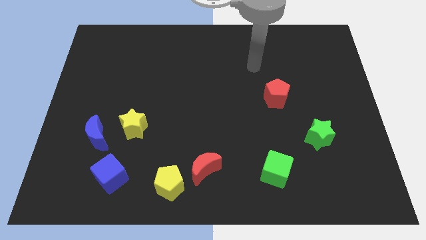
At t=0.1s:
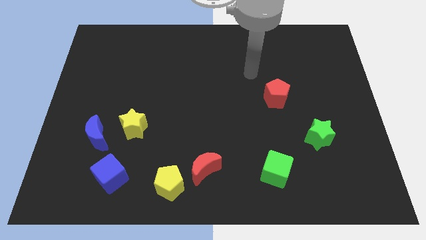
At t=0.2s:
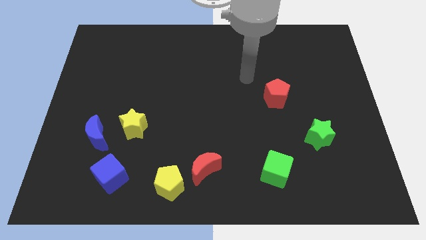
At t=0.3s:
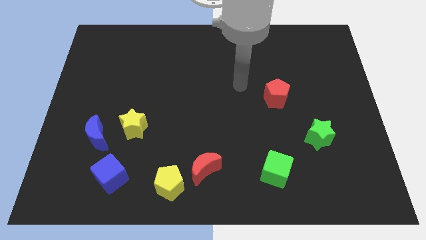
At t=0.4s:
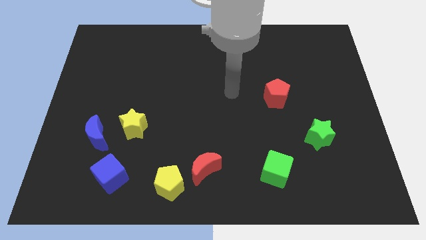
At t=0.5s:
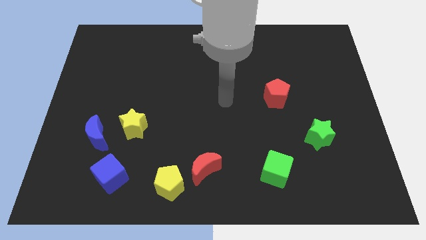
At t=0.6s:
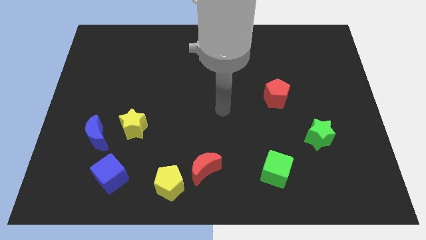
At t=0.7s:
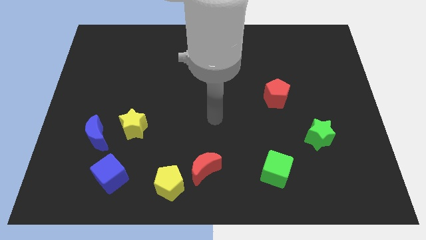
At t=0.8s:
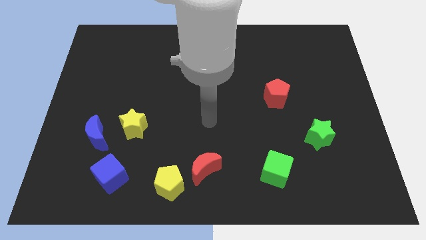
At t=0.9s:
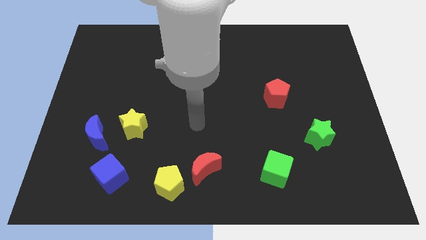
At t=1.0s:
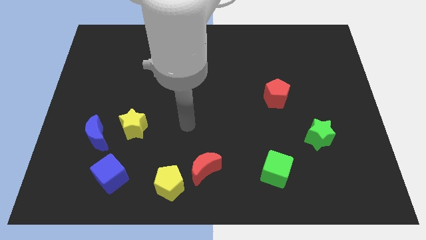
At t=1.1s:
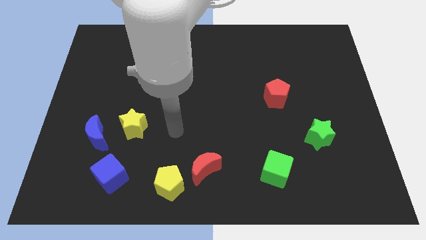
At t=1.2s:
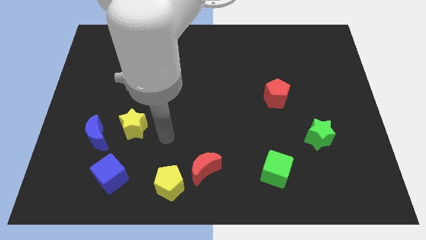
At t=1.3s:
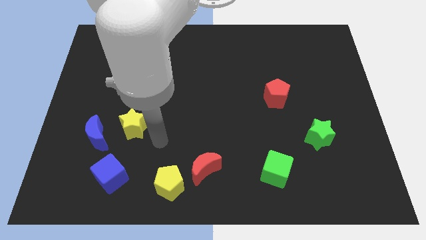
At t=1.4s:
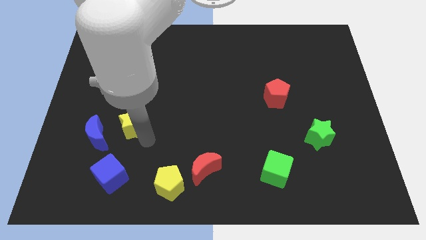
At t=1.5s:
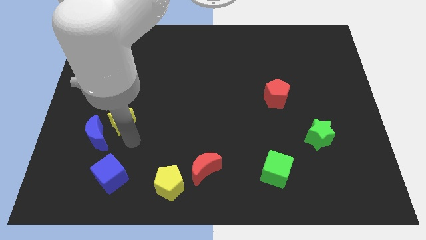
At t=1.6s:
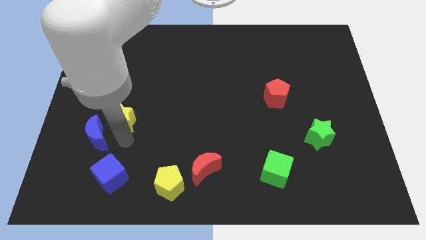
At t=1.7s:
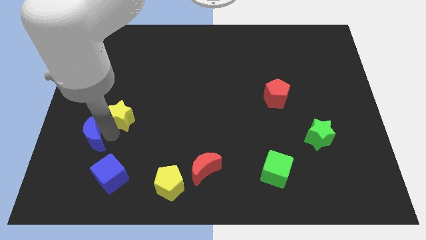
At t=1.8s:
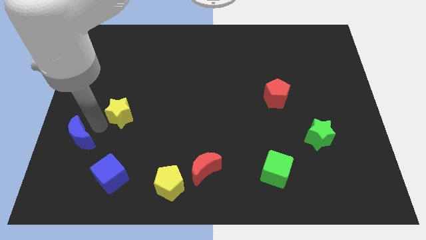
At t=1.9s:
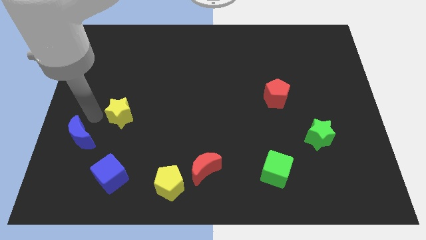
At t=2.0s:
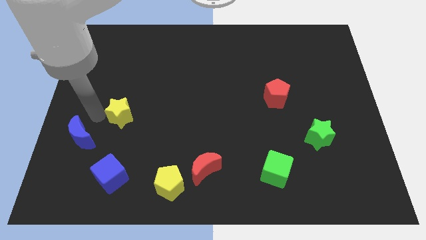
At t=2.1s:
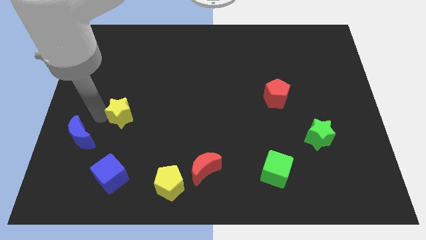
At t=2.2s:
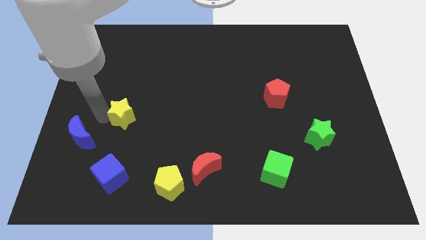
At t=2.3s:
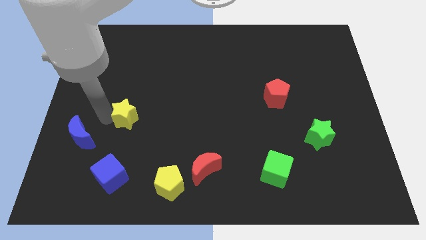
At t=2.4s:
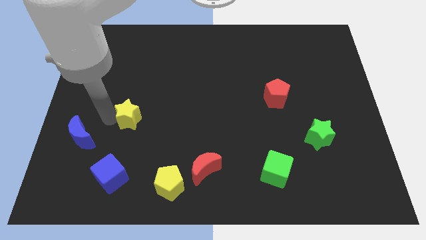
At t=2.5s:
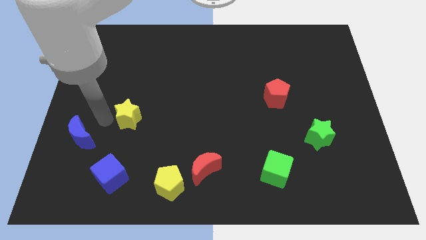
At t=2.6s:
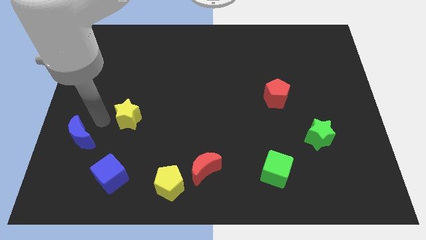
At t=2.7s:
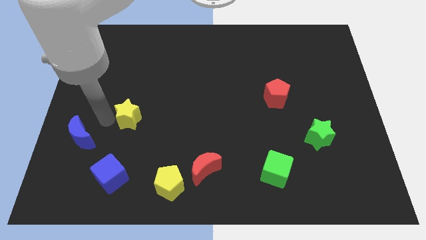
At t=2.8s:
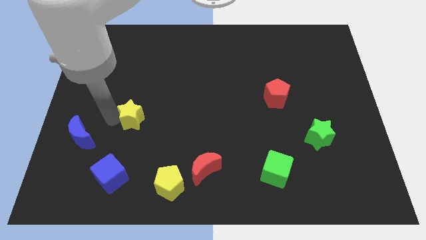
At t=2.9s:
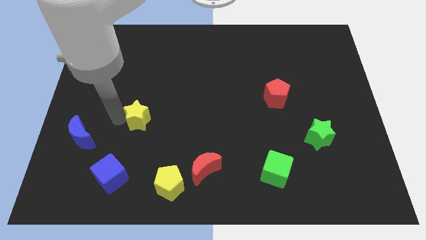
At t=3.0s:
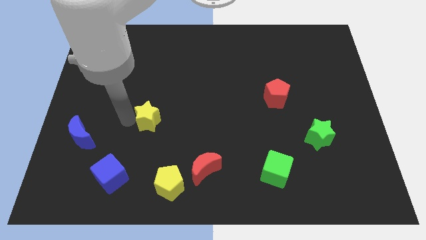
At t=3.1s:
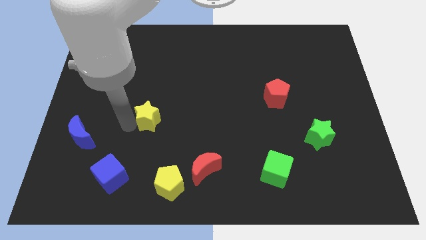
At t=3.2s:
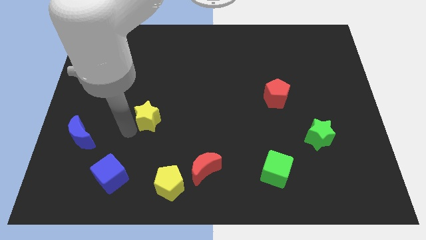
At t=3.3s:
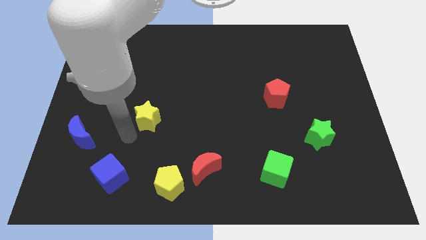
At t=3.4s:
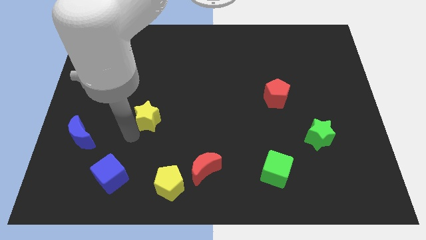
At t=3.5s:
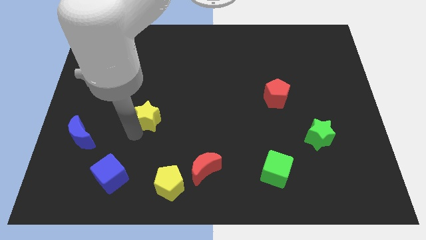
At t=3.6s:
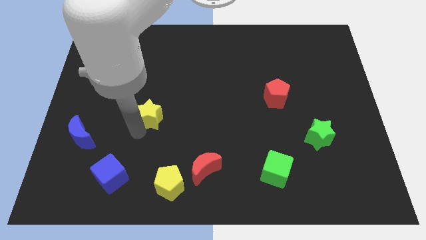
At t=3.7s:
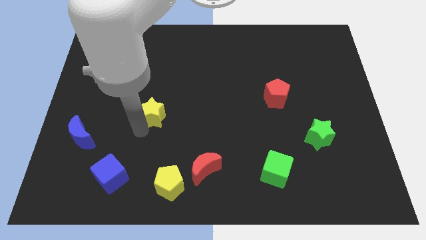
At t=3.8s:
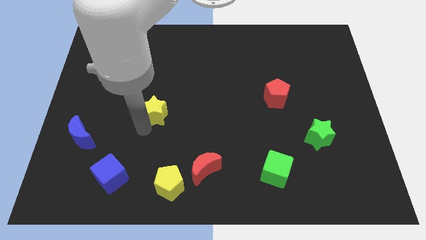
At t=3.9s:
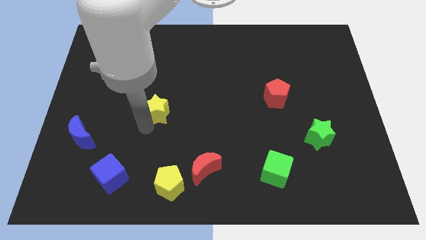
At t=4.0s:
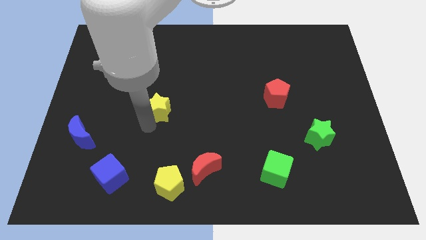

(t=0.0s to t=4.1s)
slightly push the yellow star up and then to the right

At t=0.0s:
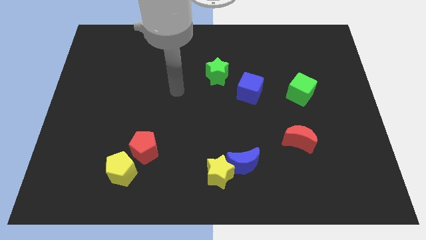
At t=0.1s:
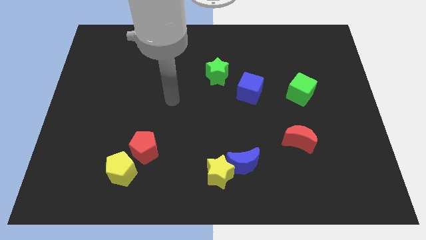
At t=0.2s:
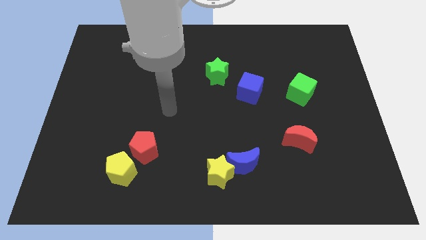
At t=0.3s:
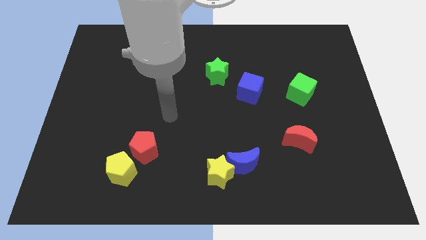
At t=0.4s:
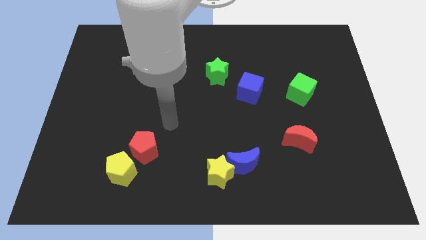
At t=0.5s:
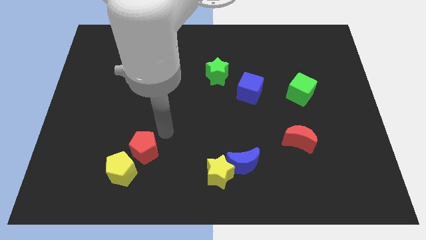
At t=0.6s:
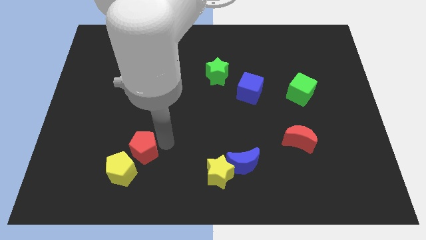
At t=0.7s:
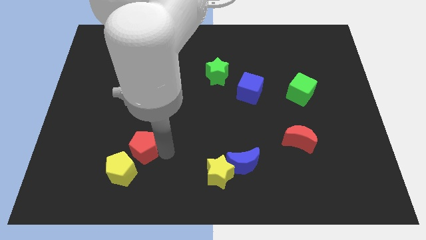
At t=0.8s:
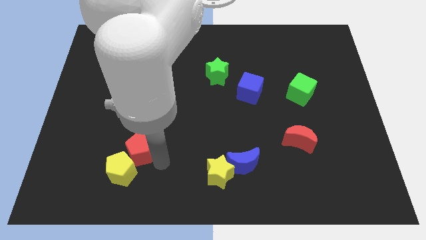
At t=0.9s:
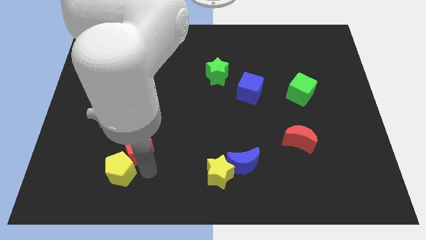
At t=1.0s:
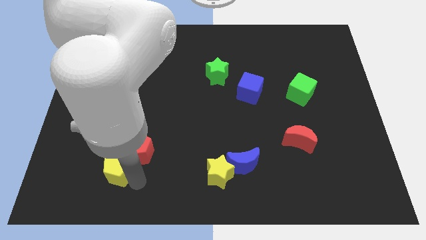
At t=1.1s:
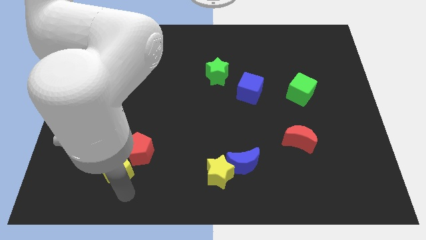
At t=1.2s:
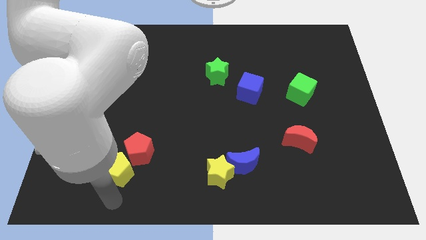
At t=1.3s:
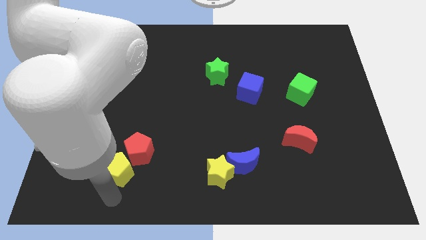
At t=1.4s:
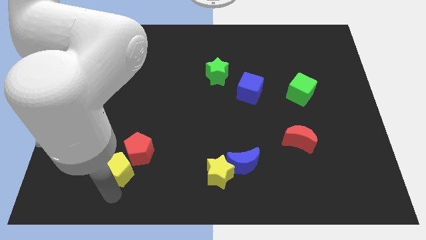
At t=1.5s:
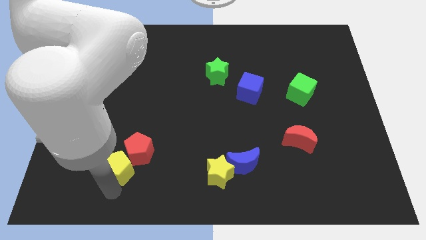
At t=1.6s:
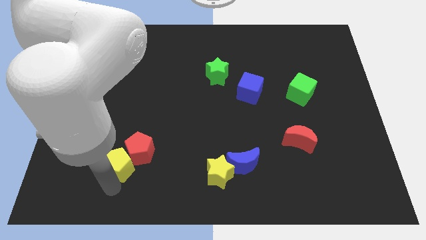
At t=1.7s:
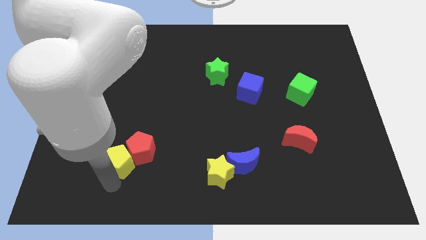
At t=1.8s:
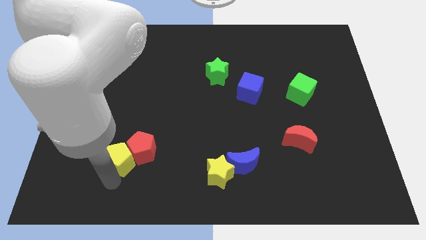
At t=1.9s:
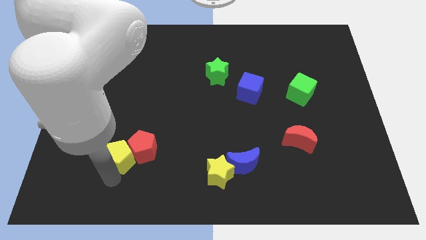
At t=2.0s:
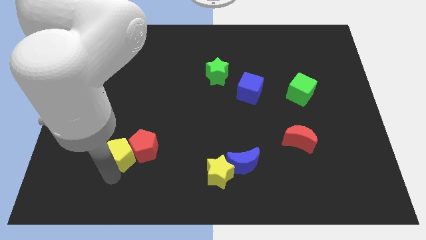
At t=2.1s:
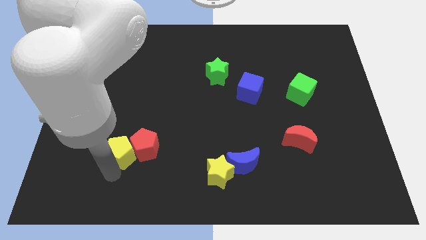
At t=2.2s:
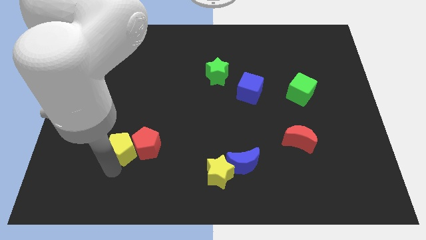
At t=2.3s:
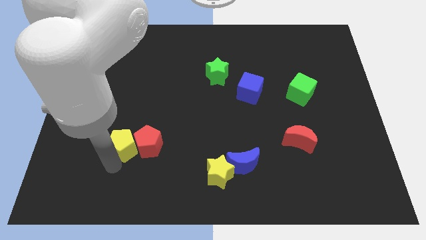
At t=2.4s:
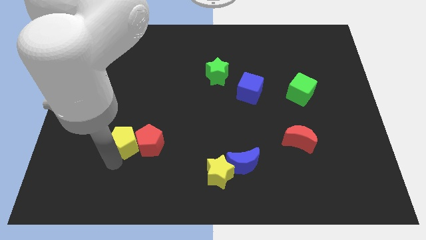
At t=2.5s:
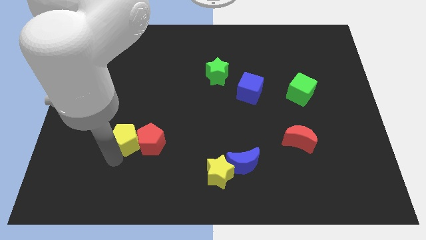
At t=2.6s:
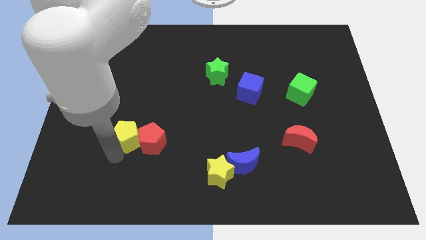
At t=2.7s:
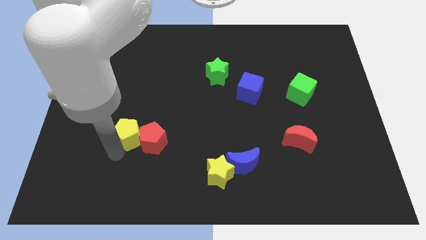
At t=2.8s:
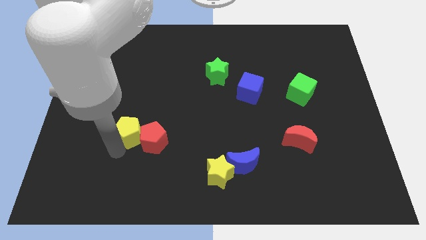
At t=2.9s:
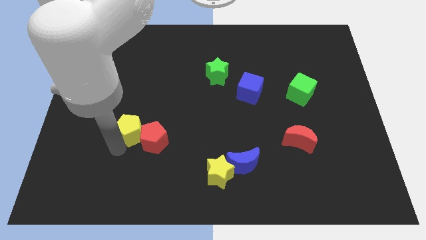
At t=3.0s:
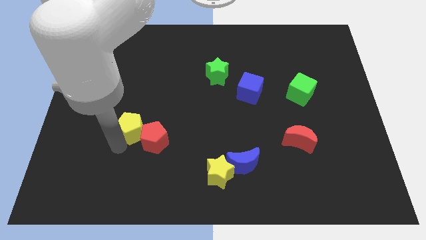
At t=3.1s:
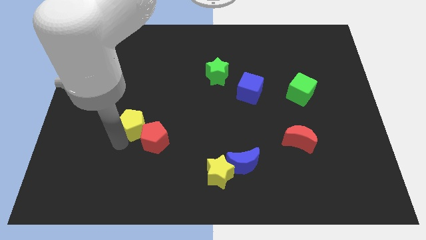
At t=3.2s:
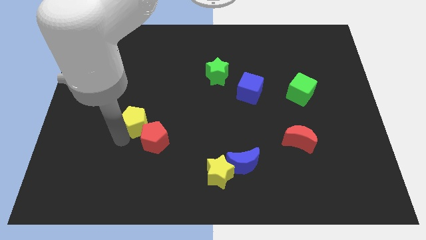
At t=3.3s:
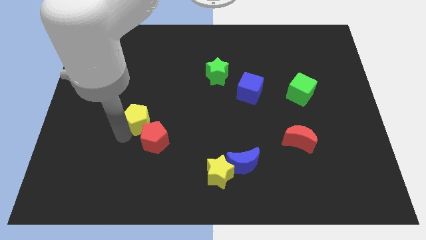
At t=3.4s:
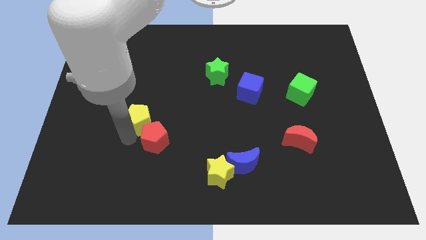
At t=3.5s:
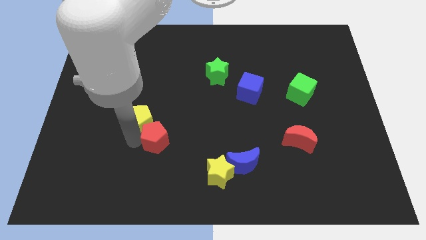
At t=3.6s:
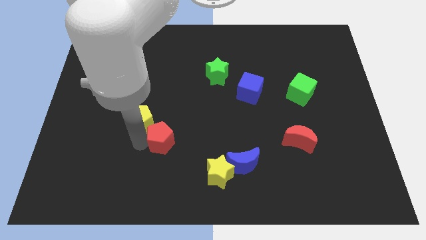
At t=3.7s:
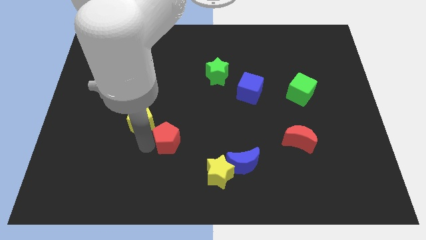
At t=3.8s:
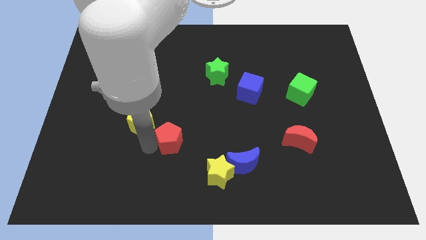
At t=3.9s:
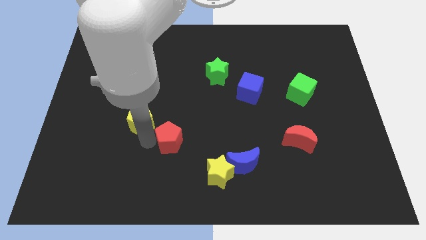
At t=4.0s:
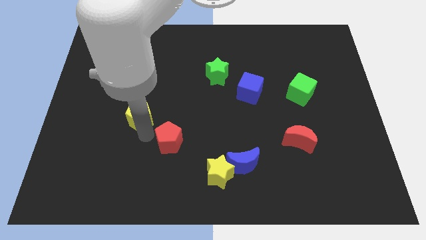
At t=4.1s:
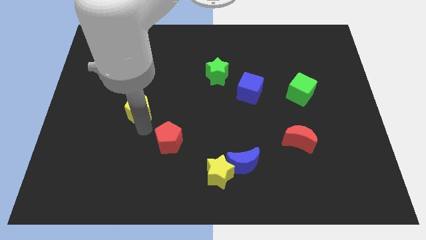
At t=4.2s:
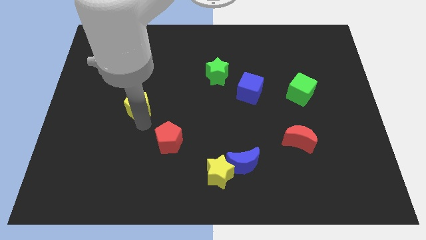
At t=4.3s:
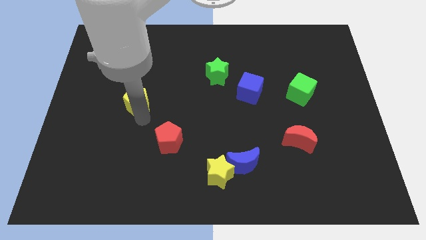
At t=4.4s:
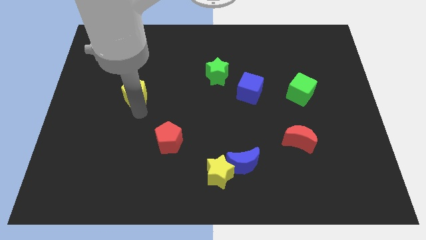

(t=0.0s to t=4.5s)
slide the yellow pentagon upwards
